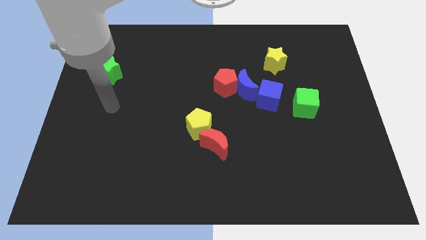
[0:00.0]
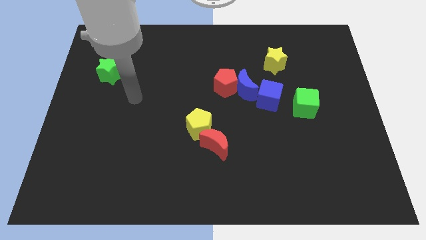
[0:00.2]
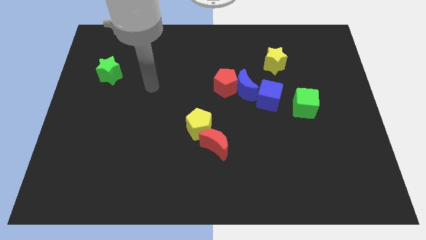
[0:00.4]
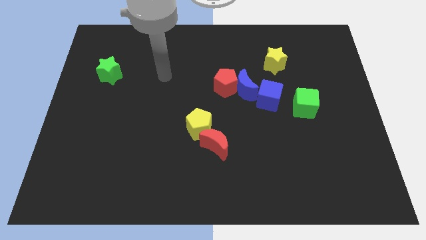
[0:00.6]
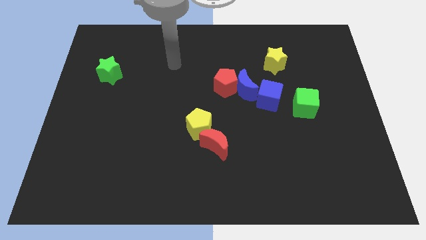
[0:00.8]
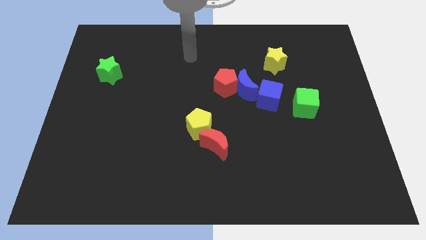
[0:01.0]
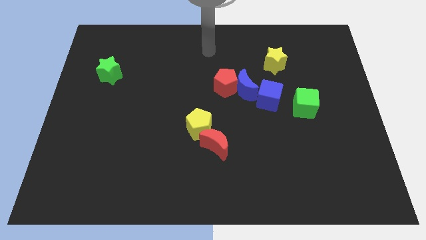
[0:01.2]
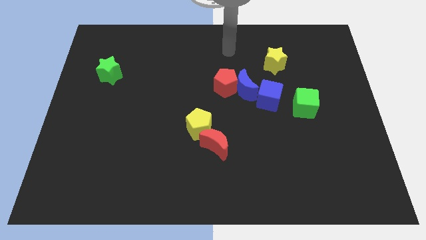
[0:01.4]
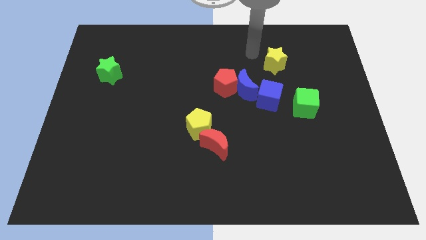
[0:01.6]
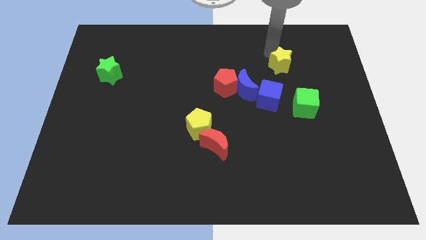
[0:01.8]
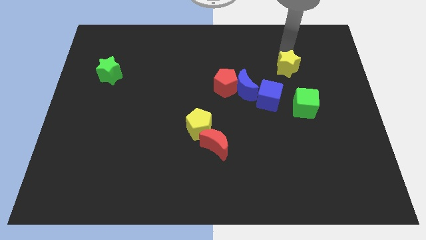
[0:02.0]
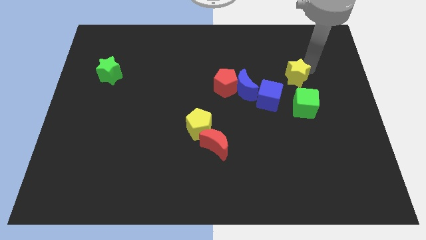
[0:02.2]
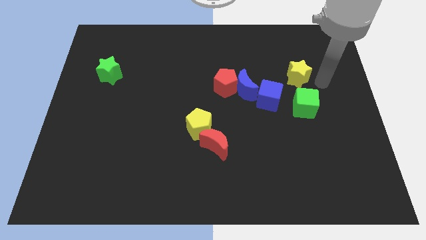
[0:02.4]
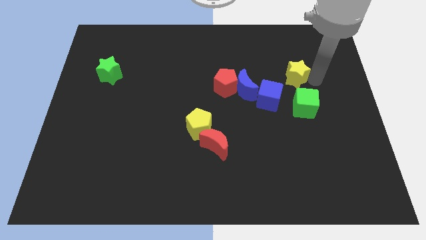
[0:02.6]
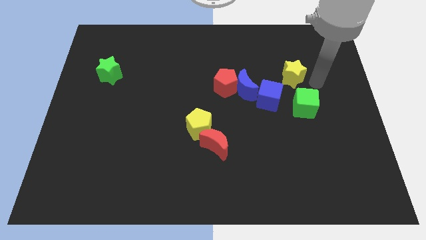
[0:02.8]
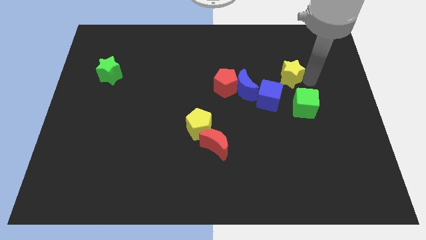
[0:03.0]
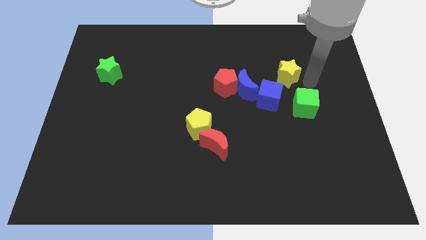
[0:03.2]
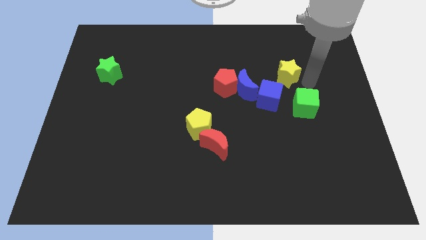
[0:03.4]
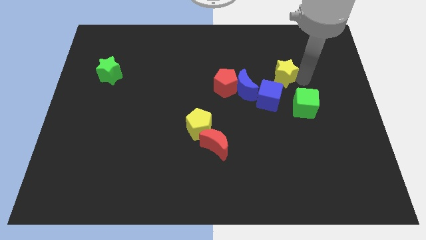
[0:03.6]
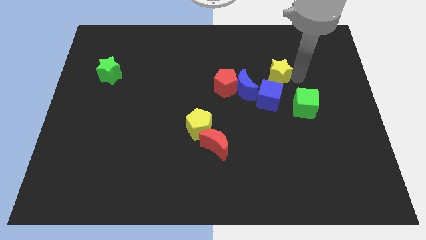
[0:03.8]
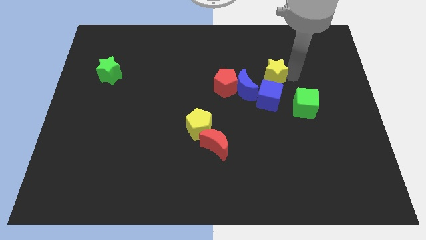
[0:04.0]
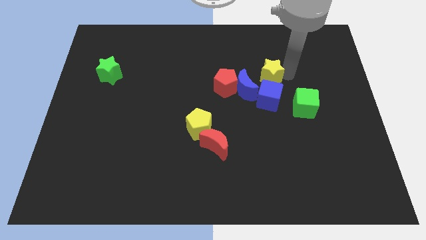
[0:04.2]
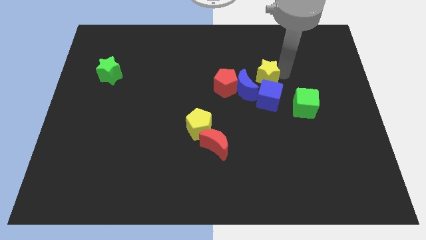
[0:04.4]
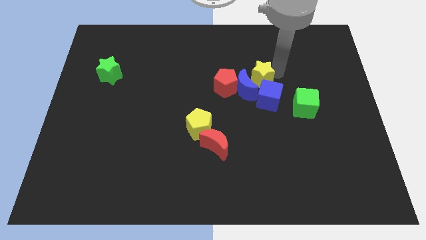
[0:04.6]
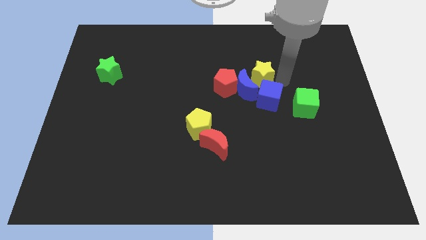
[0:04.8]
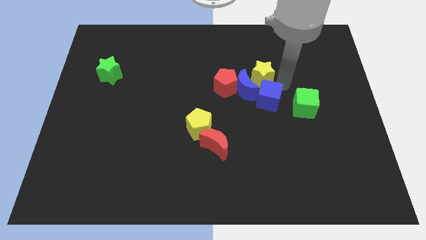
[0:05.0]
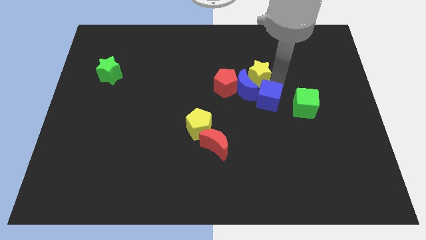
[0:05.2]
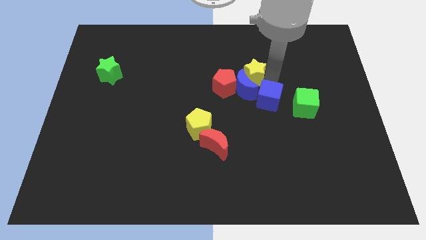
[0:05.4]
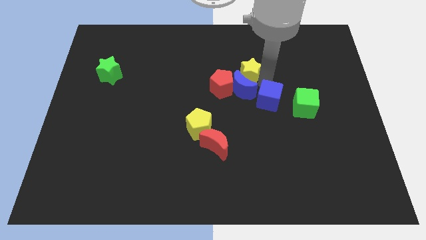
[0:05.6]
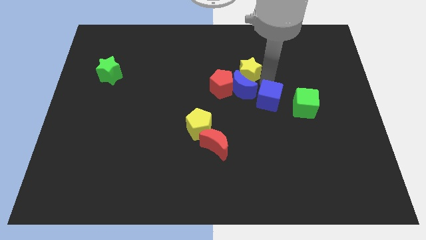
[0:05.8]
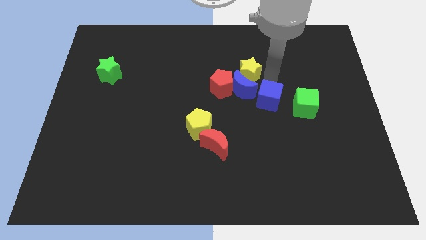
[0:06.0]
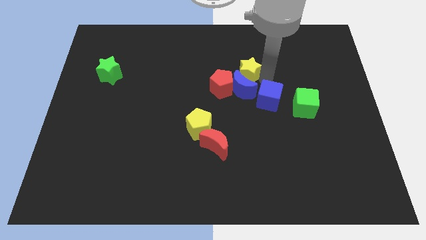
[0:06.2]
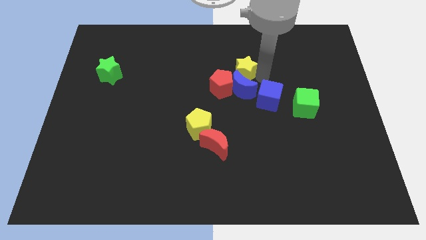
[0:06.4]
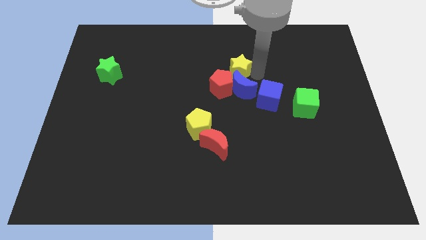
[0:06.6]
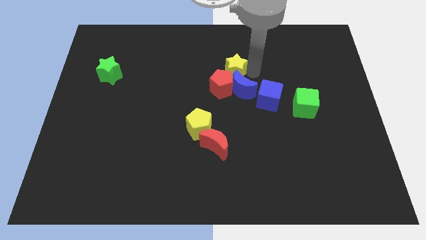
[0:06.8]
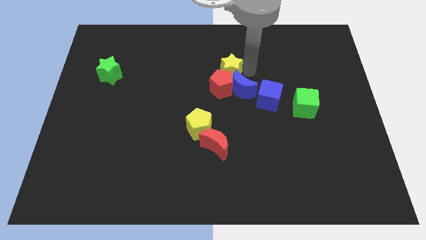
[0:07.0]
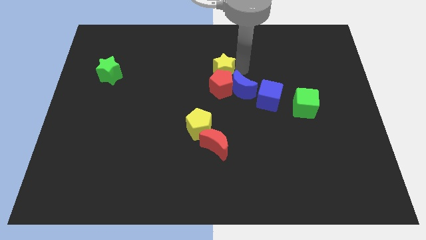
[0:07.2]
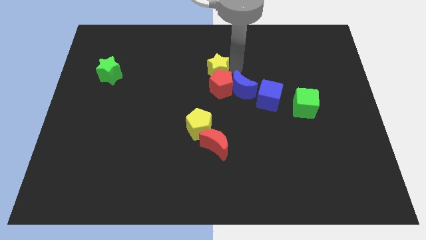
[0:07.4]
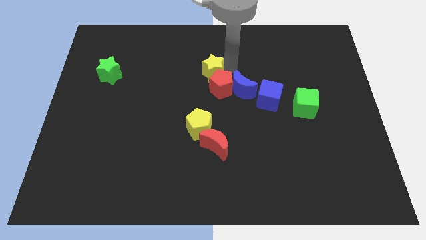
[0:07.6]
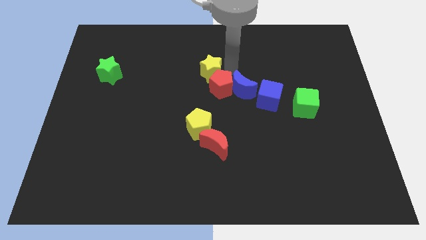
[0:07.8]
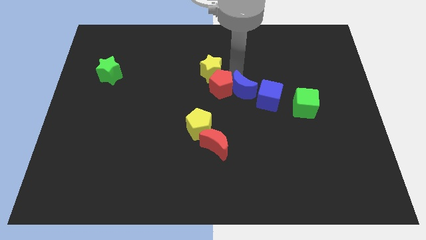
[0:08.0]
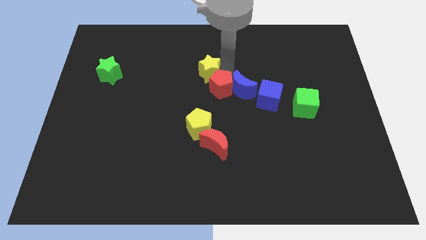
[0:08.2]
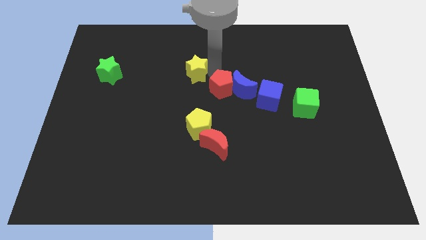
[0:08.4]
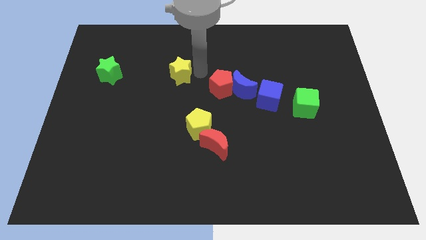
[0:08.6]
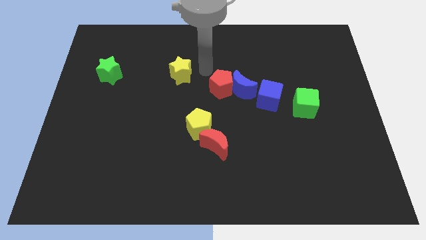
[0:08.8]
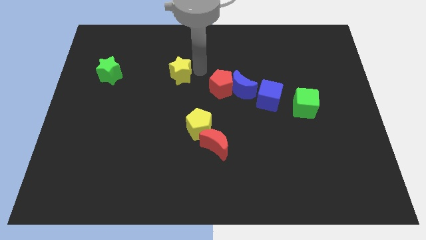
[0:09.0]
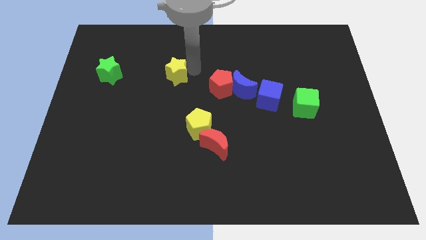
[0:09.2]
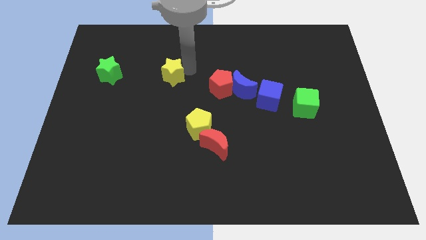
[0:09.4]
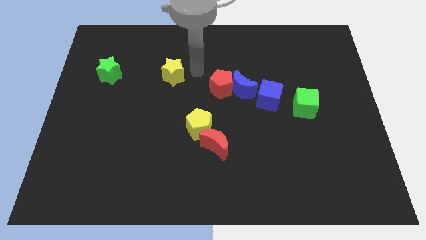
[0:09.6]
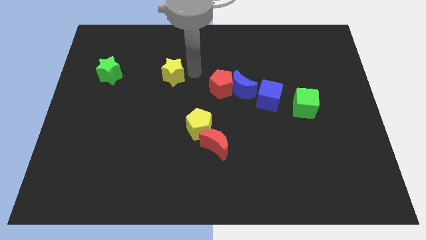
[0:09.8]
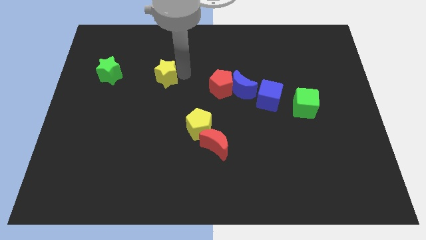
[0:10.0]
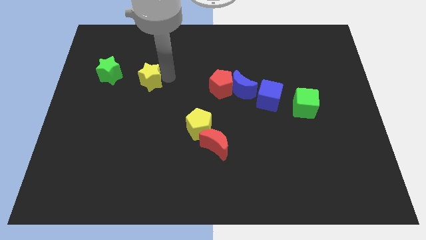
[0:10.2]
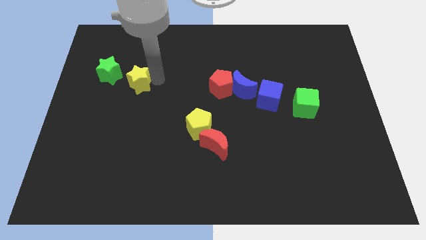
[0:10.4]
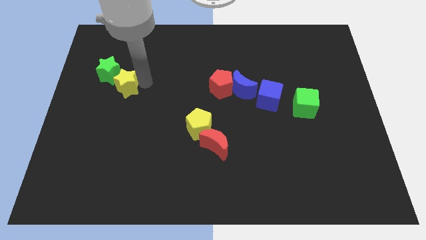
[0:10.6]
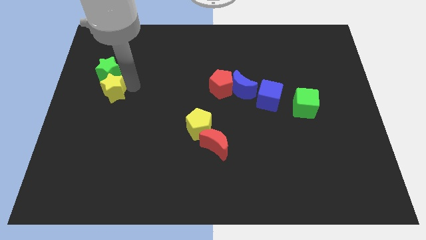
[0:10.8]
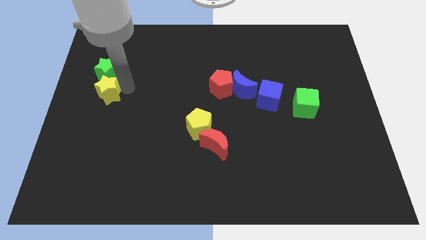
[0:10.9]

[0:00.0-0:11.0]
move the yellow star to the center left

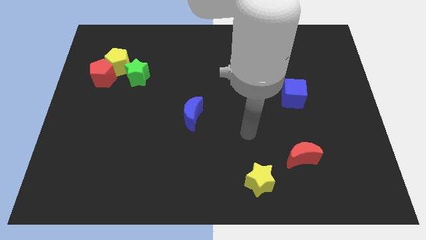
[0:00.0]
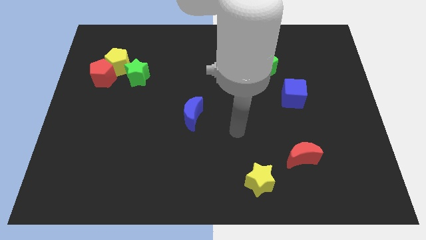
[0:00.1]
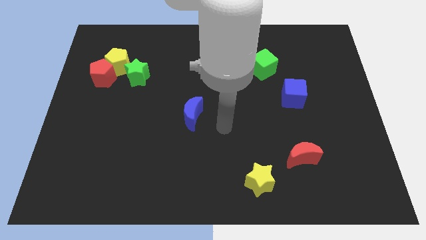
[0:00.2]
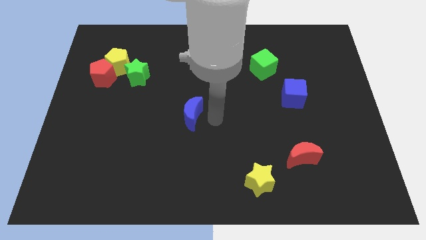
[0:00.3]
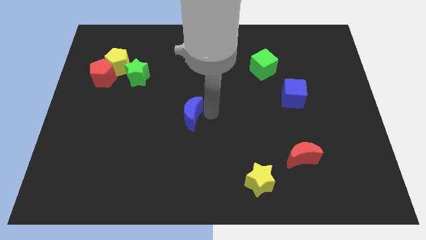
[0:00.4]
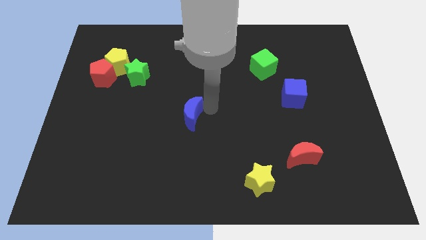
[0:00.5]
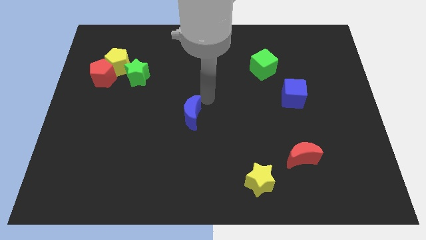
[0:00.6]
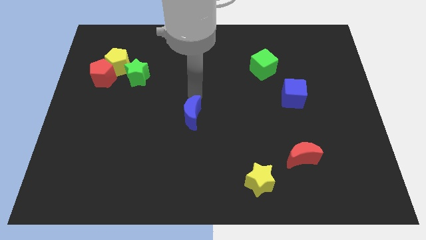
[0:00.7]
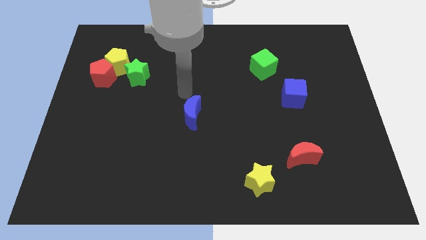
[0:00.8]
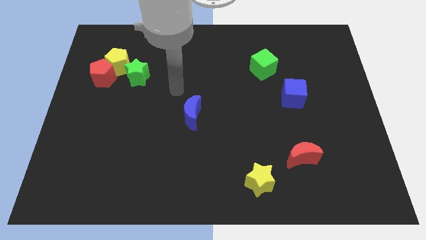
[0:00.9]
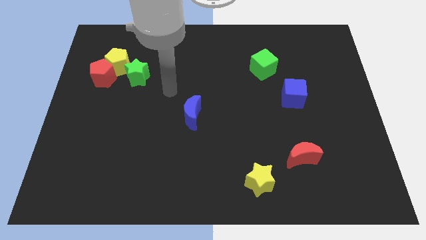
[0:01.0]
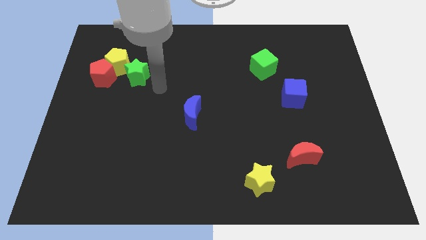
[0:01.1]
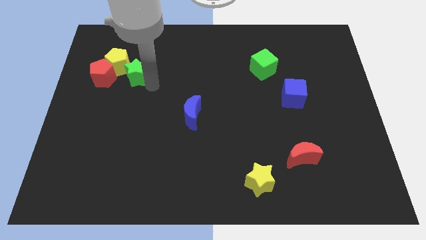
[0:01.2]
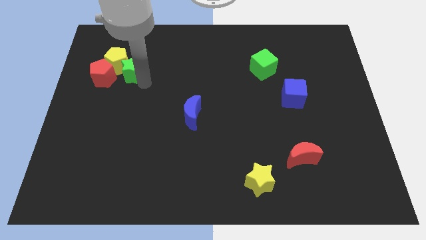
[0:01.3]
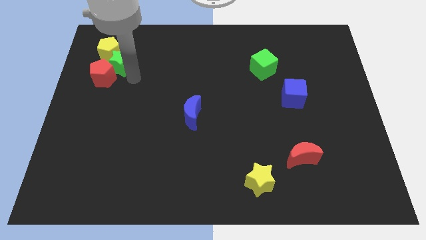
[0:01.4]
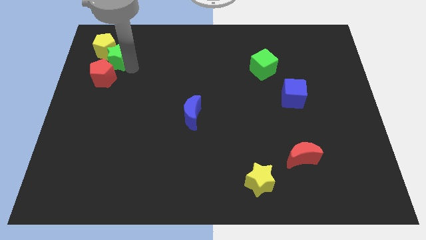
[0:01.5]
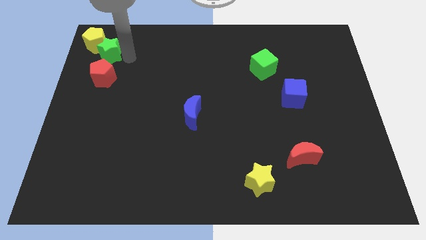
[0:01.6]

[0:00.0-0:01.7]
move the yellow pentagon to the top left corner
